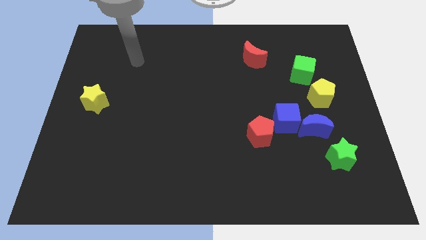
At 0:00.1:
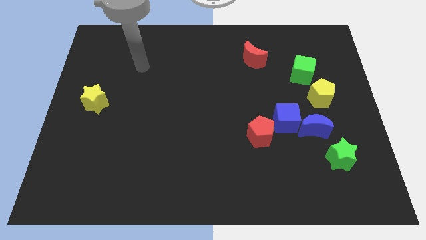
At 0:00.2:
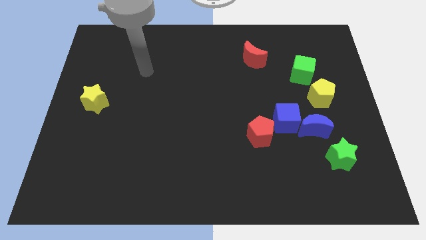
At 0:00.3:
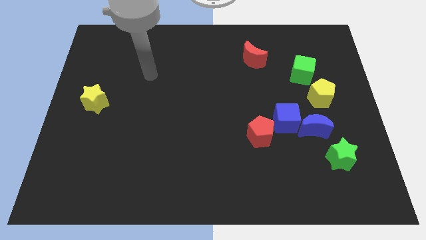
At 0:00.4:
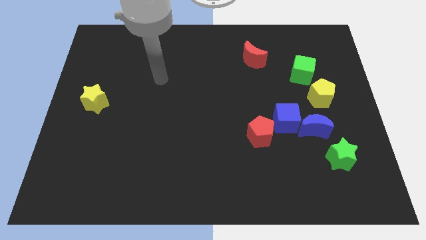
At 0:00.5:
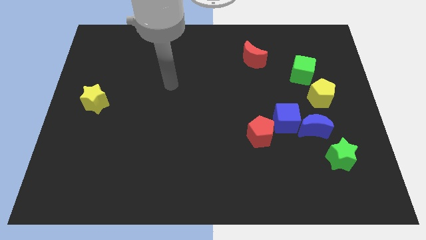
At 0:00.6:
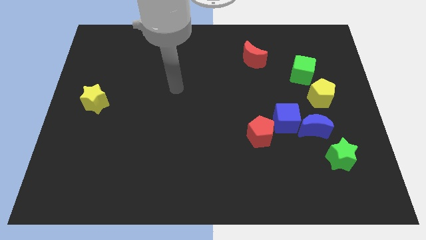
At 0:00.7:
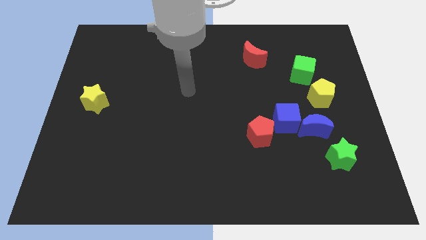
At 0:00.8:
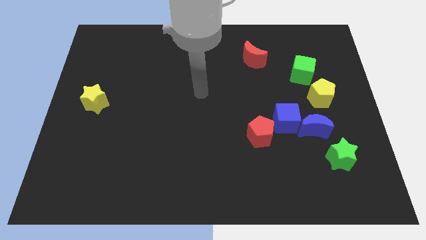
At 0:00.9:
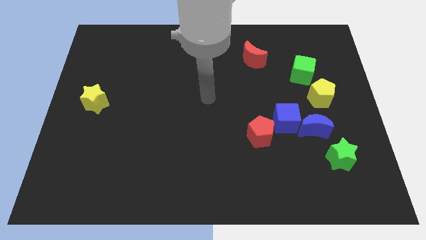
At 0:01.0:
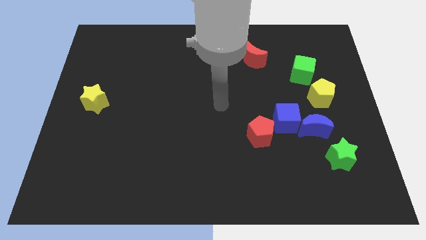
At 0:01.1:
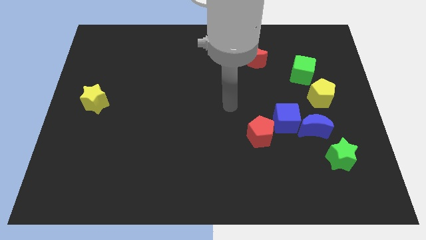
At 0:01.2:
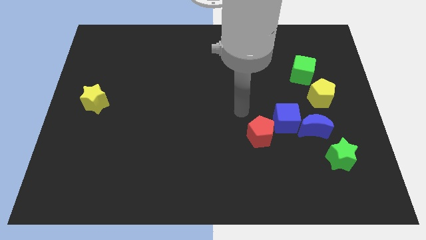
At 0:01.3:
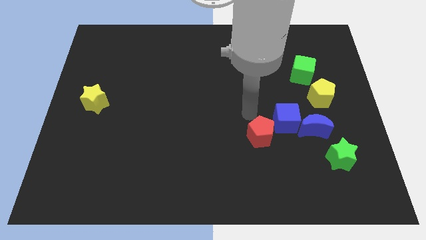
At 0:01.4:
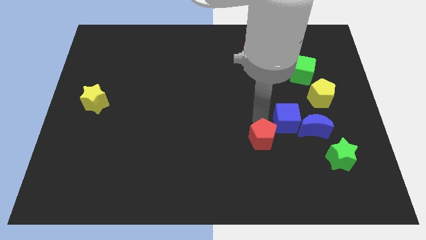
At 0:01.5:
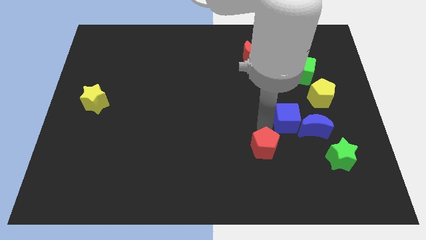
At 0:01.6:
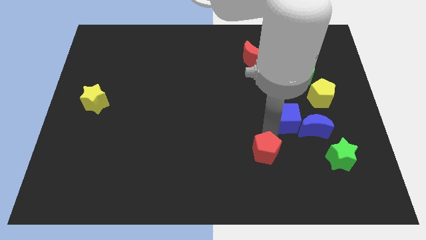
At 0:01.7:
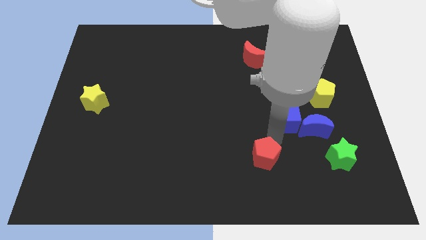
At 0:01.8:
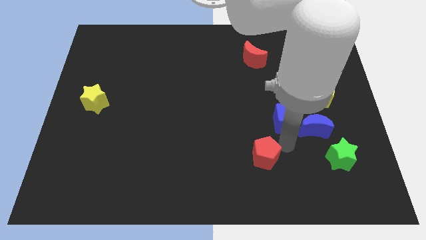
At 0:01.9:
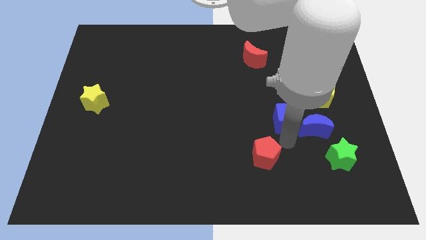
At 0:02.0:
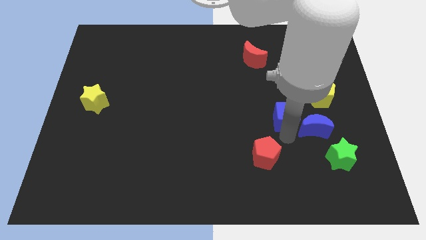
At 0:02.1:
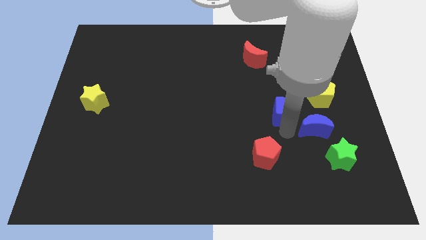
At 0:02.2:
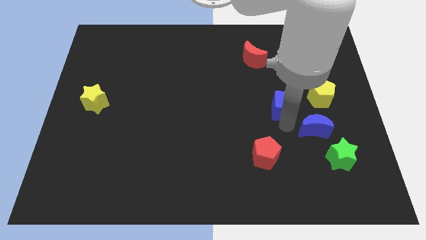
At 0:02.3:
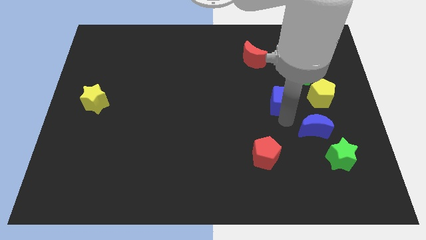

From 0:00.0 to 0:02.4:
separate the blue cube from the blue moon and red pentagon

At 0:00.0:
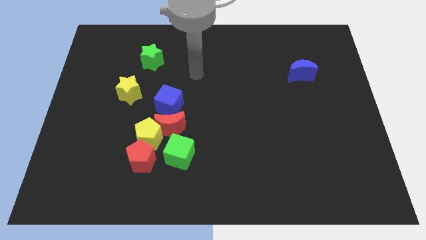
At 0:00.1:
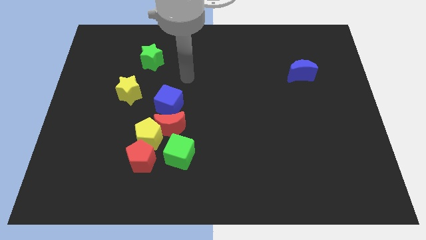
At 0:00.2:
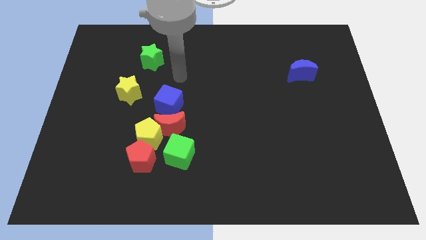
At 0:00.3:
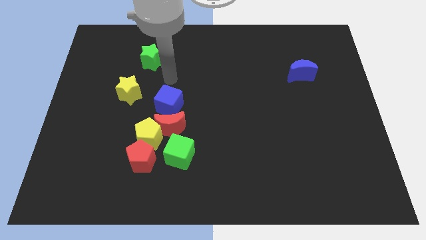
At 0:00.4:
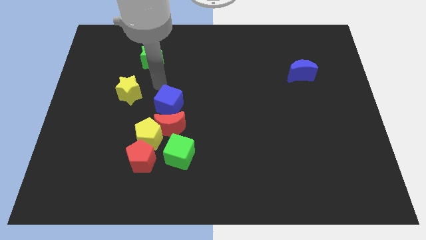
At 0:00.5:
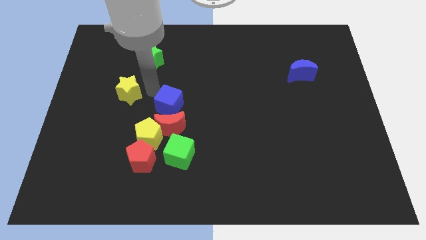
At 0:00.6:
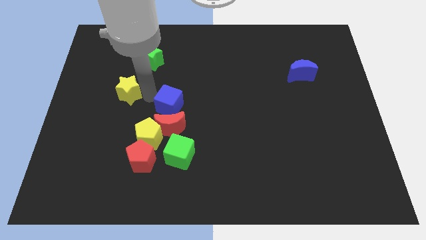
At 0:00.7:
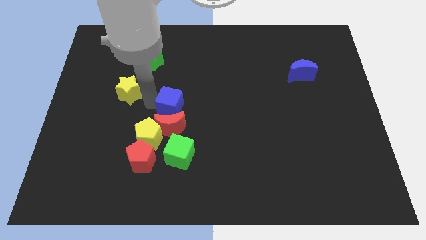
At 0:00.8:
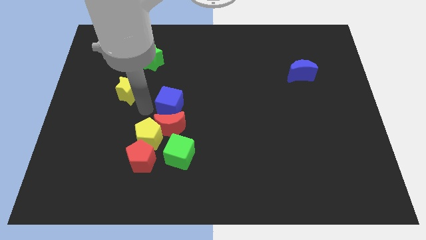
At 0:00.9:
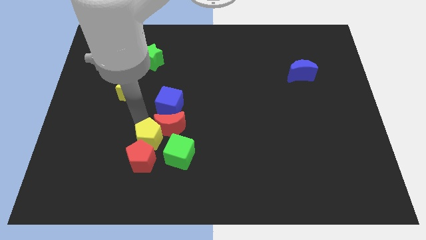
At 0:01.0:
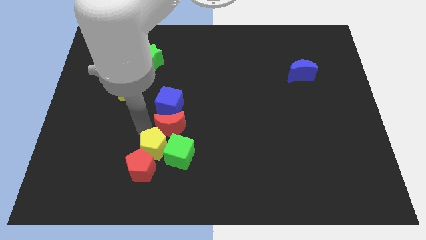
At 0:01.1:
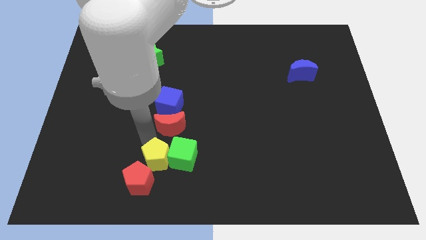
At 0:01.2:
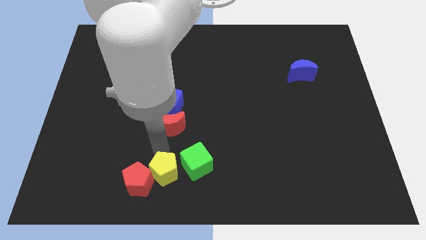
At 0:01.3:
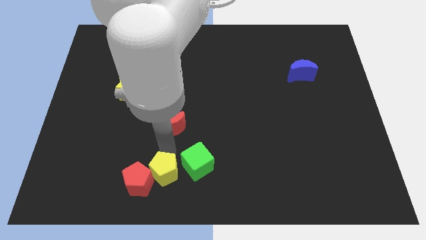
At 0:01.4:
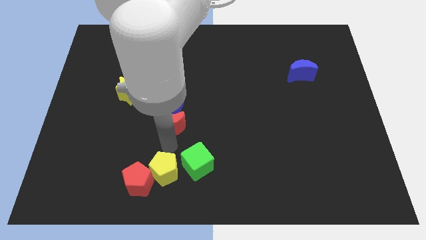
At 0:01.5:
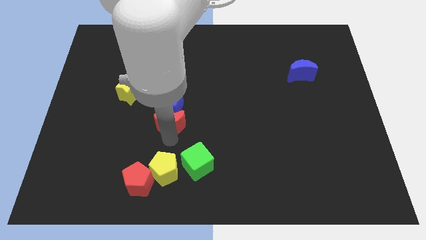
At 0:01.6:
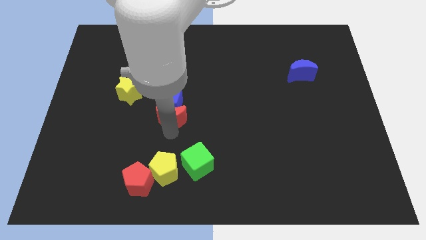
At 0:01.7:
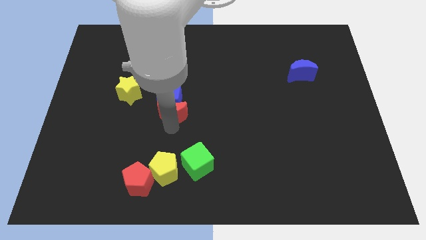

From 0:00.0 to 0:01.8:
separate the red moon from the clump

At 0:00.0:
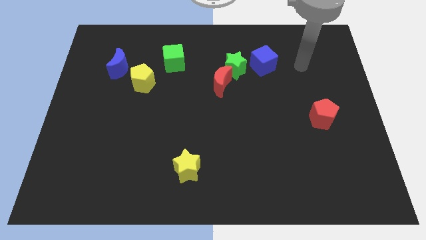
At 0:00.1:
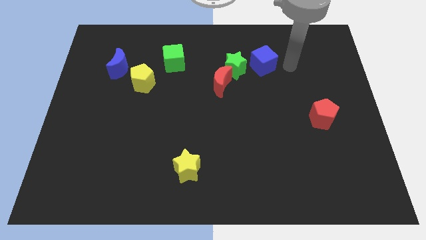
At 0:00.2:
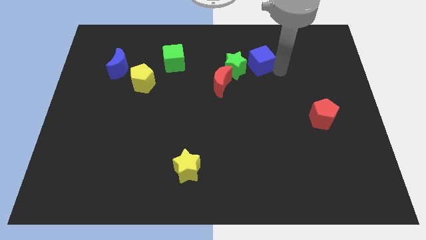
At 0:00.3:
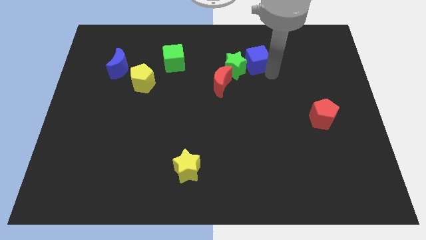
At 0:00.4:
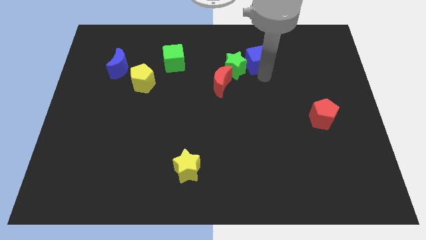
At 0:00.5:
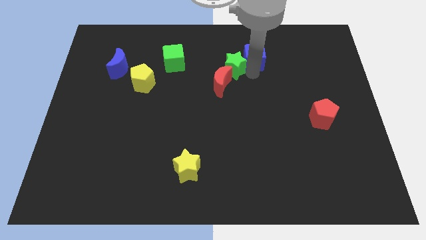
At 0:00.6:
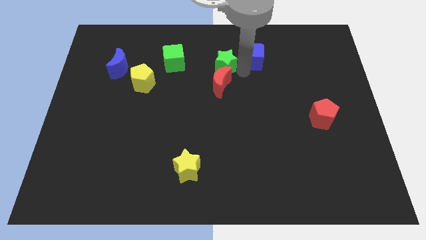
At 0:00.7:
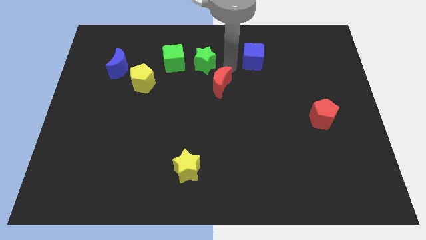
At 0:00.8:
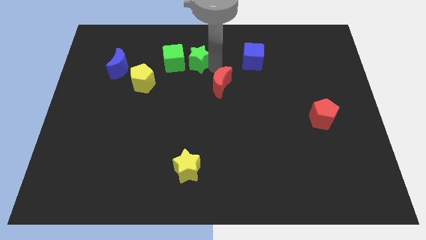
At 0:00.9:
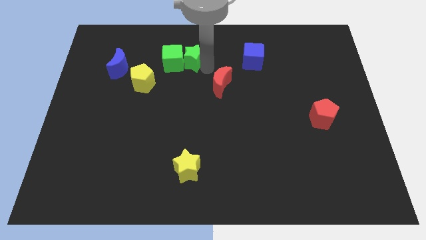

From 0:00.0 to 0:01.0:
move the red moon away from the green star

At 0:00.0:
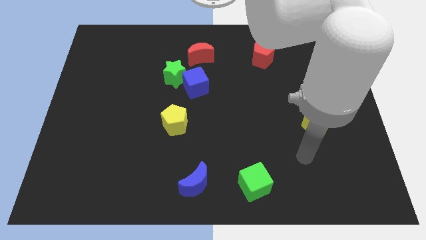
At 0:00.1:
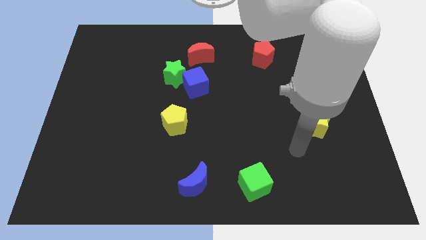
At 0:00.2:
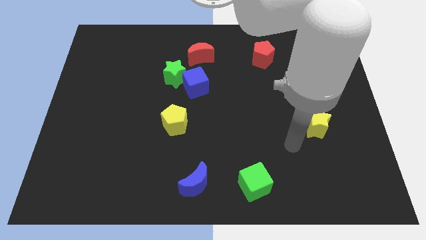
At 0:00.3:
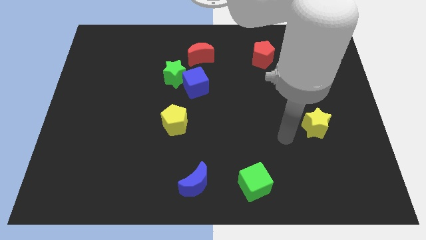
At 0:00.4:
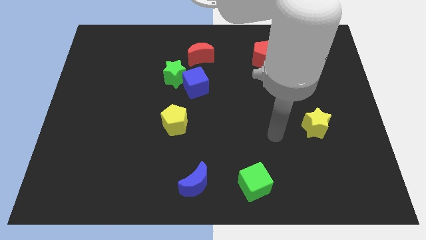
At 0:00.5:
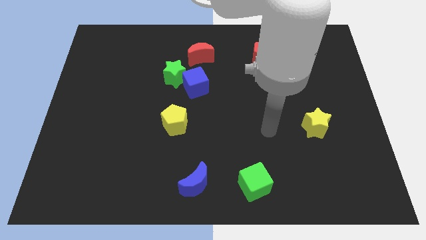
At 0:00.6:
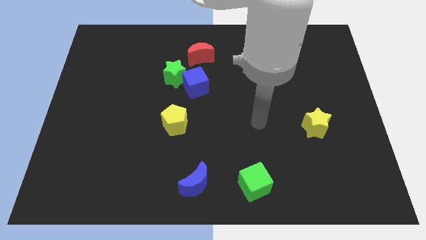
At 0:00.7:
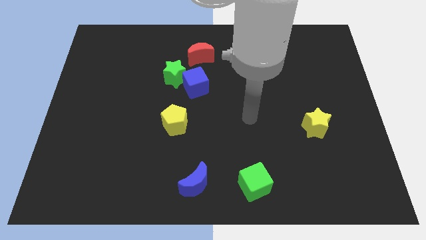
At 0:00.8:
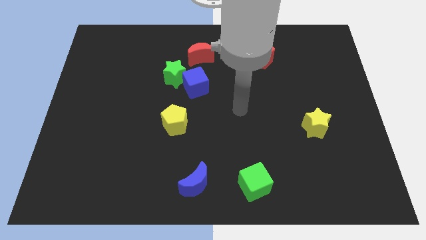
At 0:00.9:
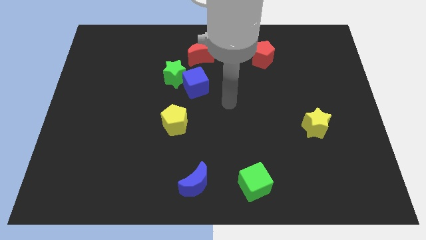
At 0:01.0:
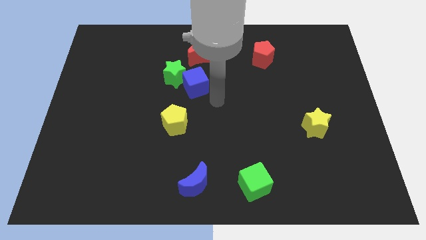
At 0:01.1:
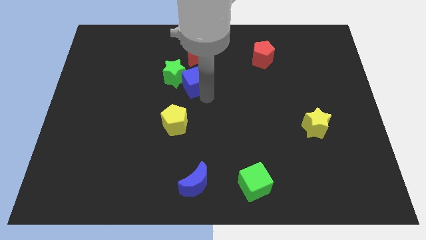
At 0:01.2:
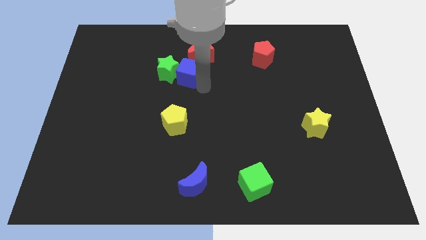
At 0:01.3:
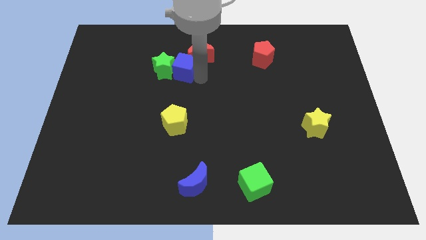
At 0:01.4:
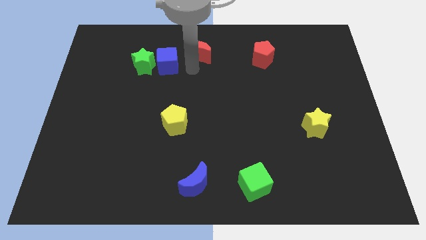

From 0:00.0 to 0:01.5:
separate the green star from the blue cube and red moon

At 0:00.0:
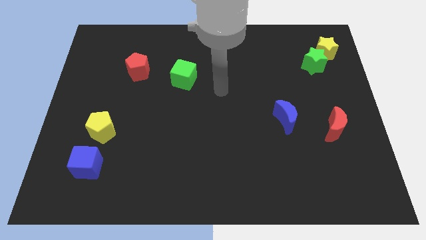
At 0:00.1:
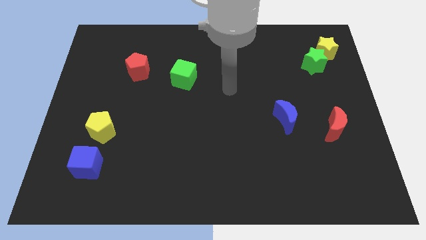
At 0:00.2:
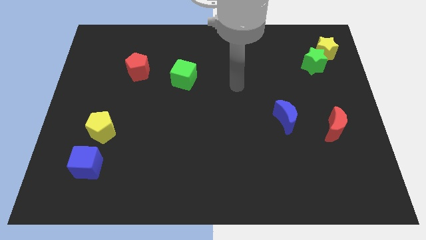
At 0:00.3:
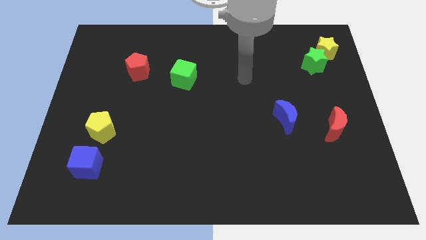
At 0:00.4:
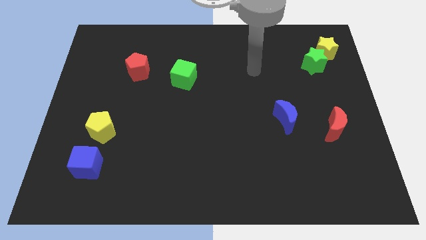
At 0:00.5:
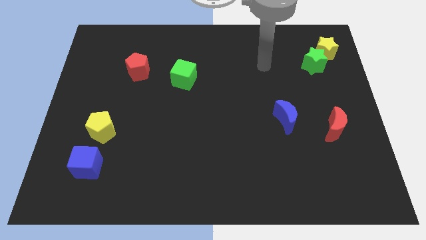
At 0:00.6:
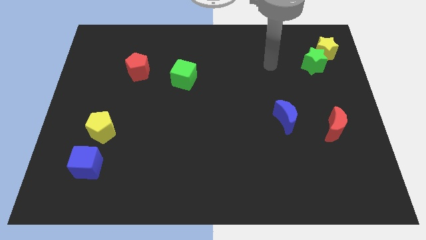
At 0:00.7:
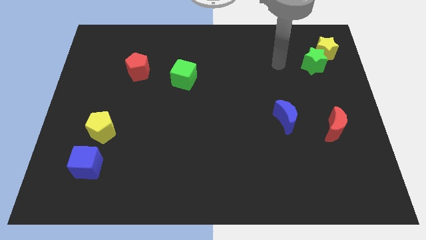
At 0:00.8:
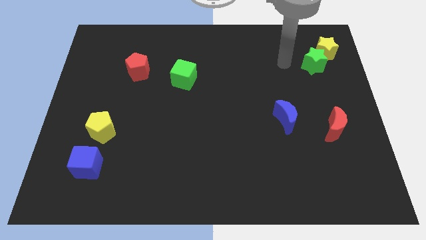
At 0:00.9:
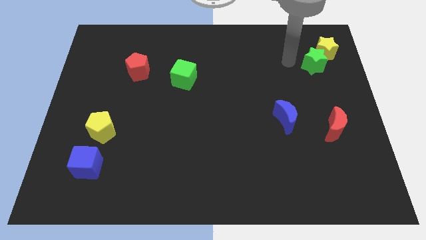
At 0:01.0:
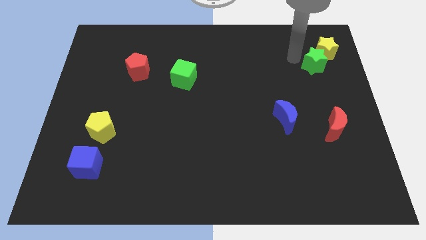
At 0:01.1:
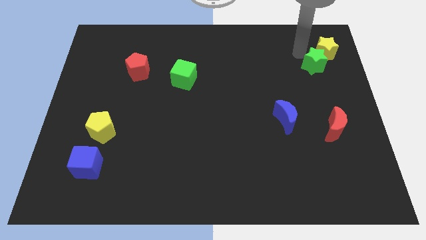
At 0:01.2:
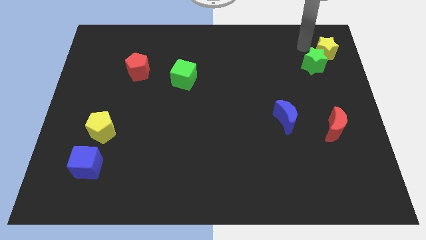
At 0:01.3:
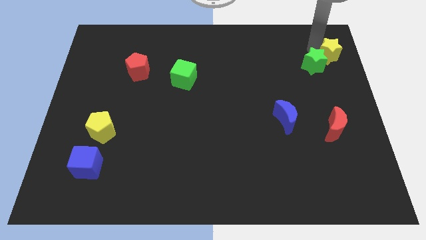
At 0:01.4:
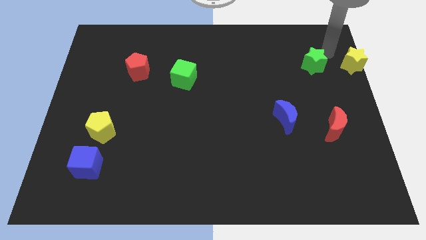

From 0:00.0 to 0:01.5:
separate the green star from the yellow star

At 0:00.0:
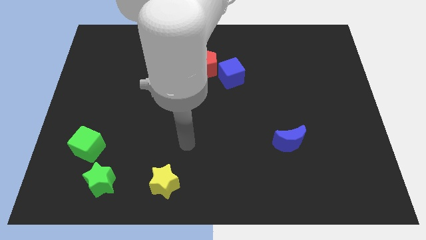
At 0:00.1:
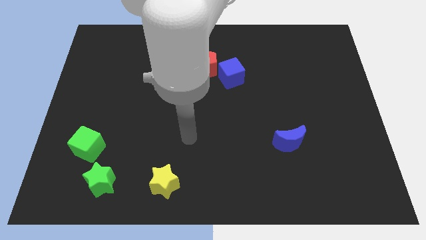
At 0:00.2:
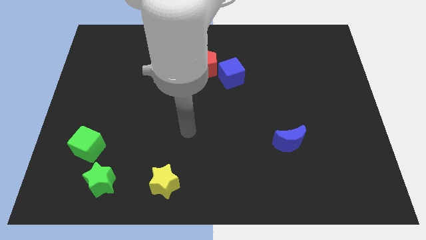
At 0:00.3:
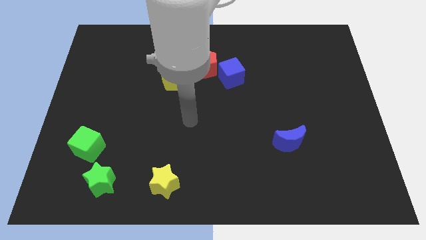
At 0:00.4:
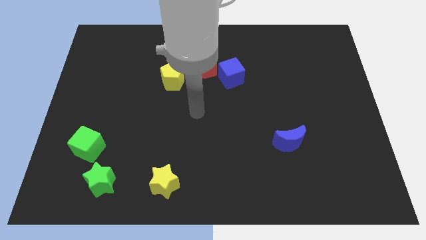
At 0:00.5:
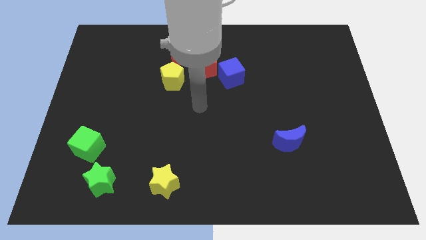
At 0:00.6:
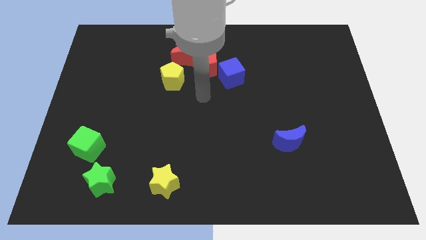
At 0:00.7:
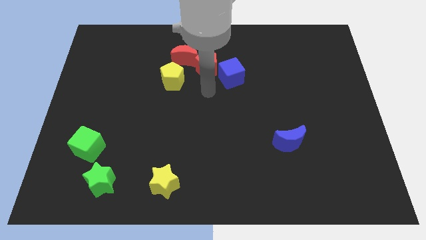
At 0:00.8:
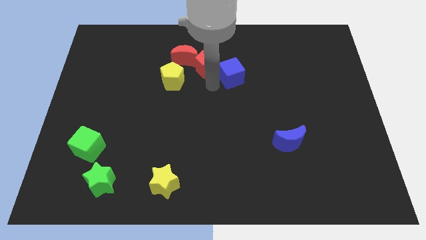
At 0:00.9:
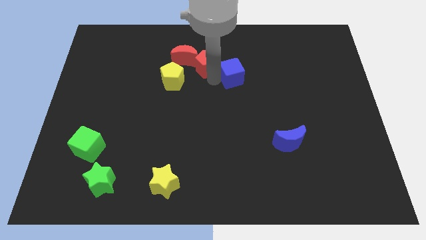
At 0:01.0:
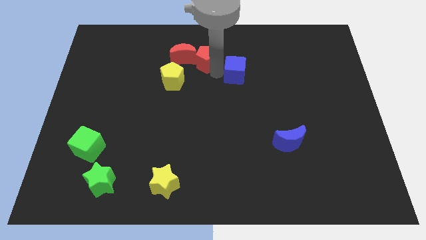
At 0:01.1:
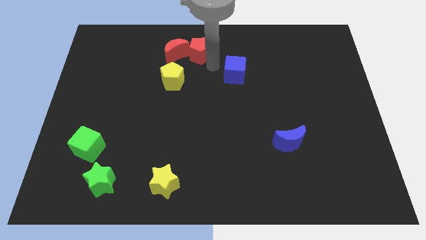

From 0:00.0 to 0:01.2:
pull the blue cube apart from the red pentagon
